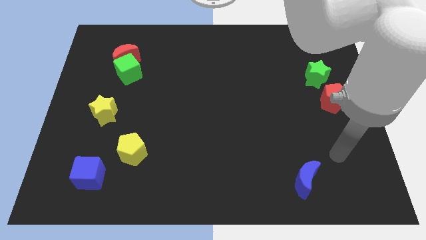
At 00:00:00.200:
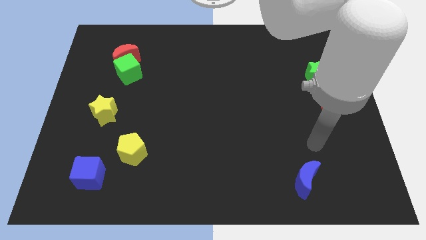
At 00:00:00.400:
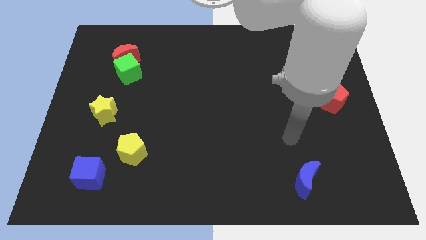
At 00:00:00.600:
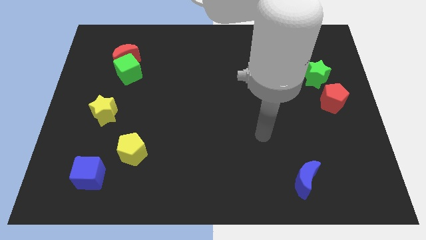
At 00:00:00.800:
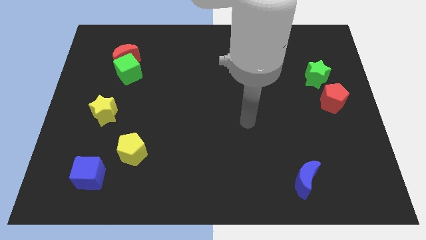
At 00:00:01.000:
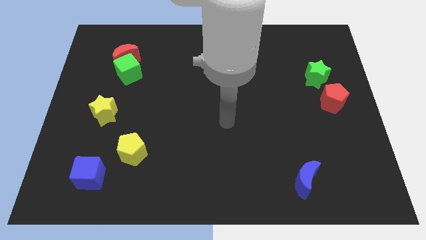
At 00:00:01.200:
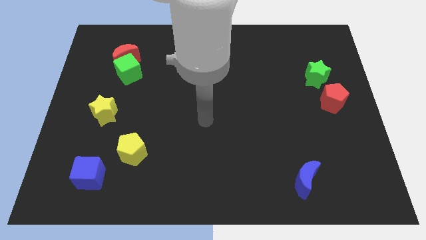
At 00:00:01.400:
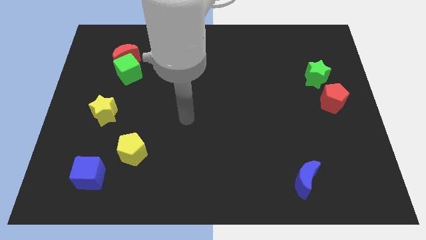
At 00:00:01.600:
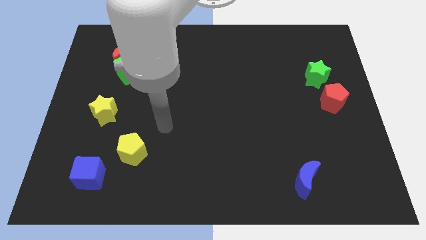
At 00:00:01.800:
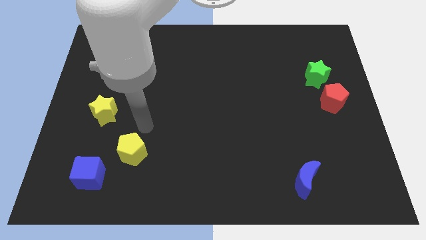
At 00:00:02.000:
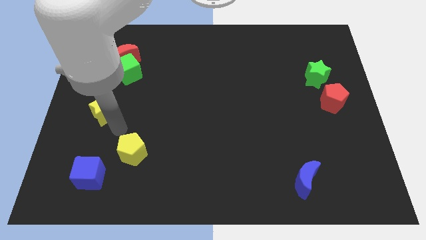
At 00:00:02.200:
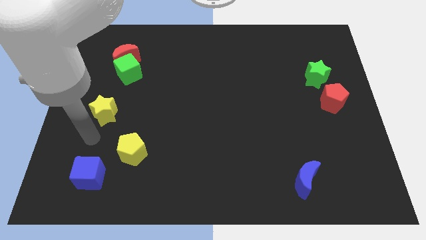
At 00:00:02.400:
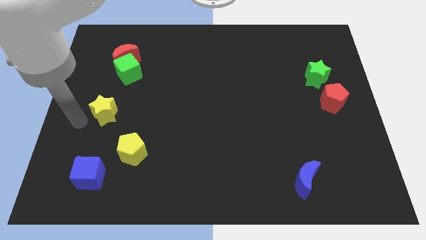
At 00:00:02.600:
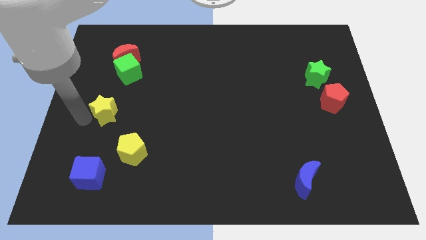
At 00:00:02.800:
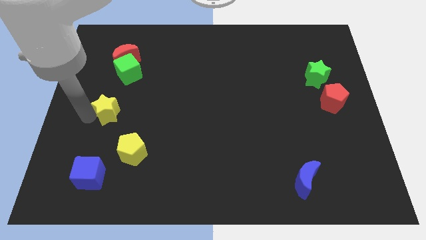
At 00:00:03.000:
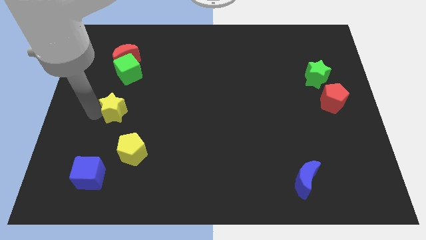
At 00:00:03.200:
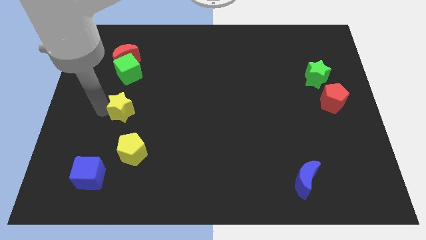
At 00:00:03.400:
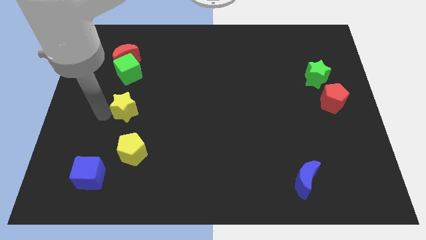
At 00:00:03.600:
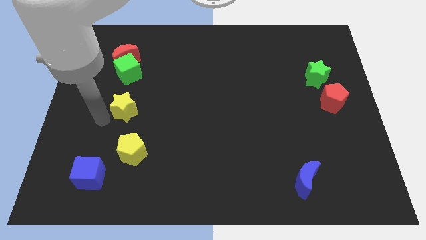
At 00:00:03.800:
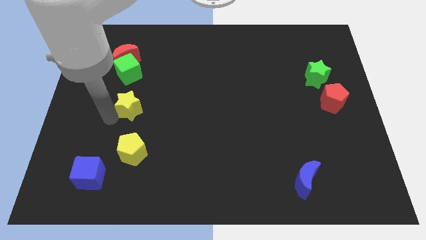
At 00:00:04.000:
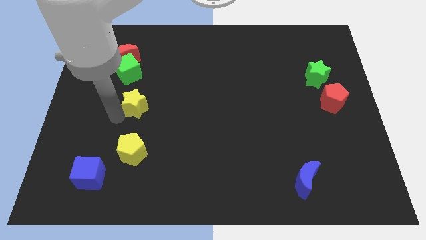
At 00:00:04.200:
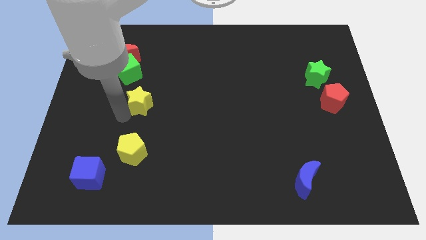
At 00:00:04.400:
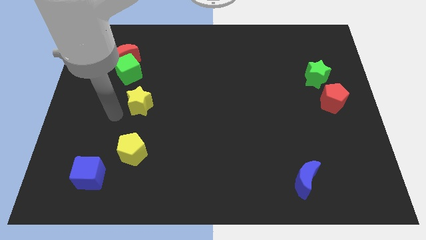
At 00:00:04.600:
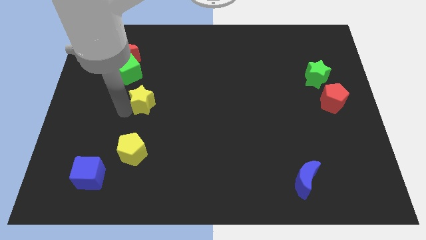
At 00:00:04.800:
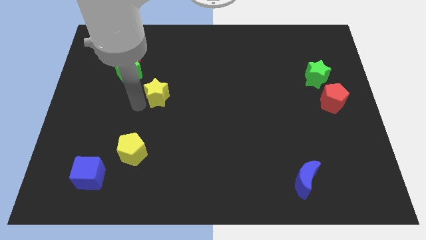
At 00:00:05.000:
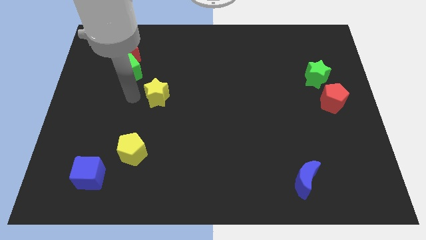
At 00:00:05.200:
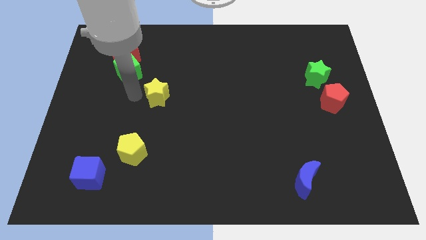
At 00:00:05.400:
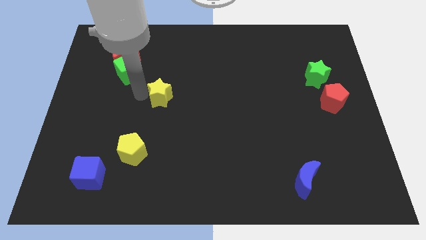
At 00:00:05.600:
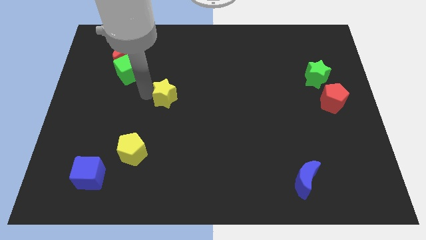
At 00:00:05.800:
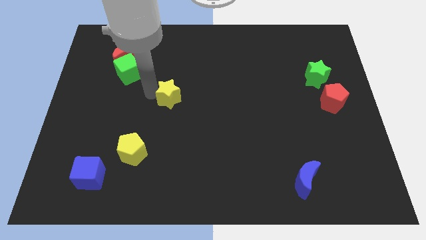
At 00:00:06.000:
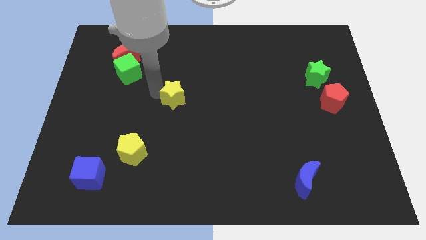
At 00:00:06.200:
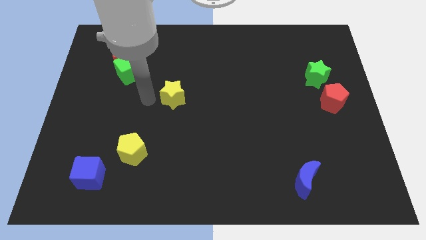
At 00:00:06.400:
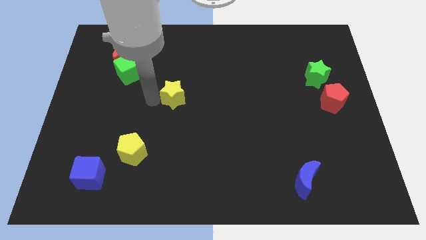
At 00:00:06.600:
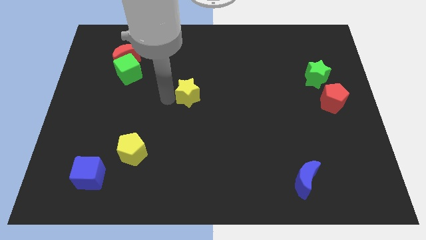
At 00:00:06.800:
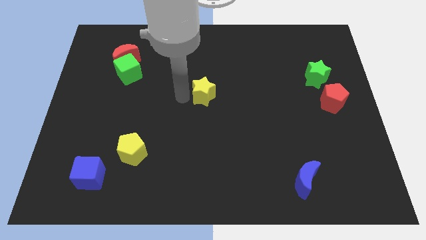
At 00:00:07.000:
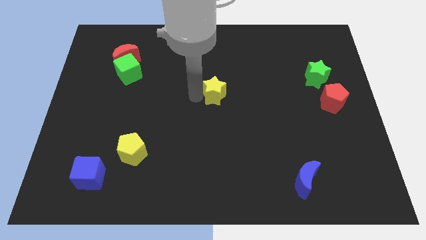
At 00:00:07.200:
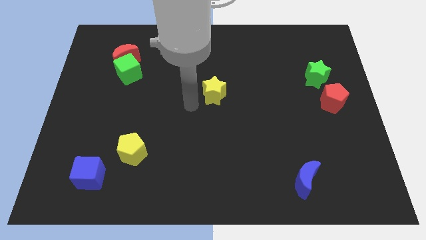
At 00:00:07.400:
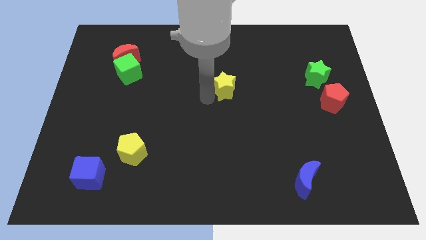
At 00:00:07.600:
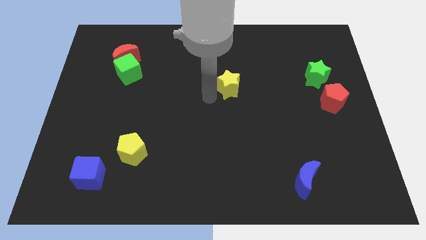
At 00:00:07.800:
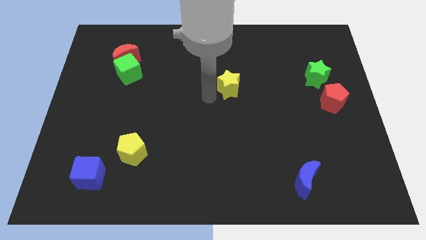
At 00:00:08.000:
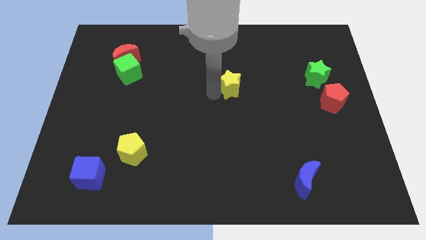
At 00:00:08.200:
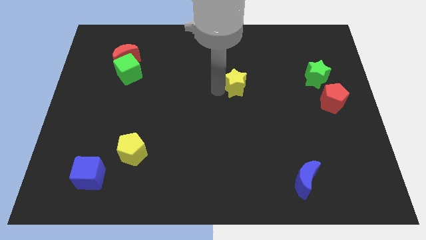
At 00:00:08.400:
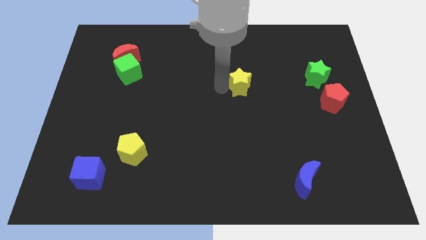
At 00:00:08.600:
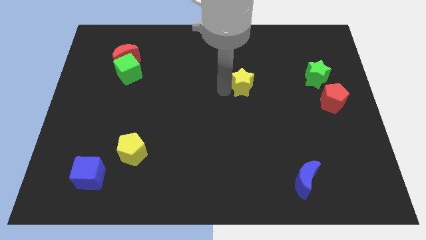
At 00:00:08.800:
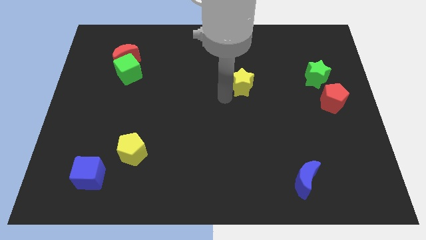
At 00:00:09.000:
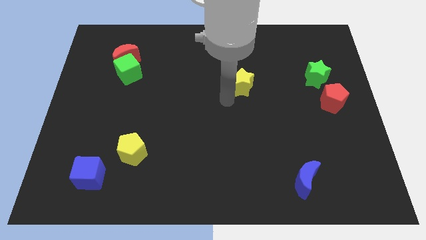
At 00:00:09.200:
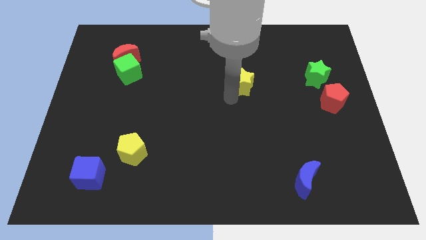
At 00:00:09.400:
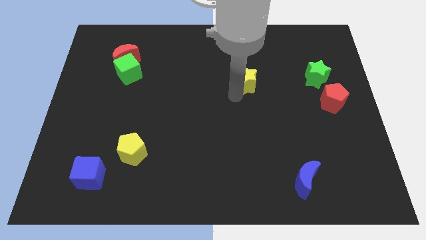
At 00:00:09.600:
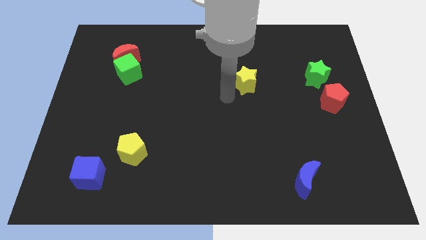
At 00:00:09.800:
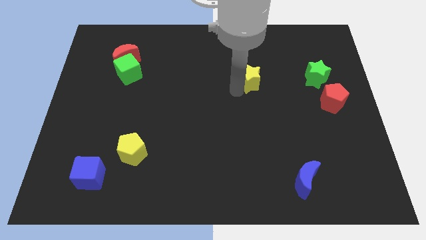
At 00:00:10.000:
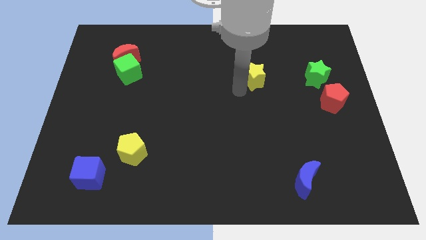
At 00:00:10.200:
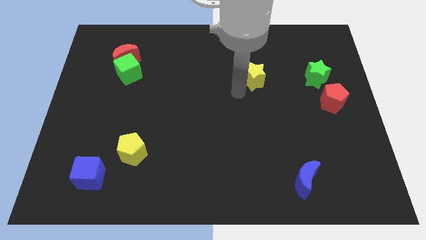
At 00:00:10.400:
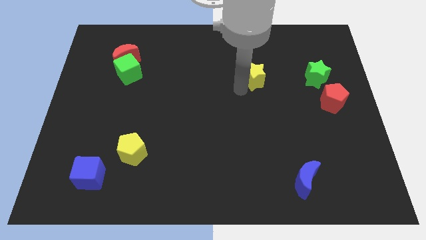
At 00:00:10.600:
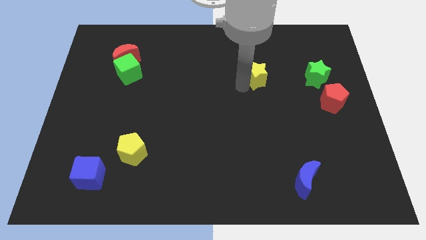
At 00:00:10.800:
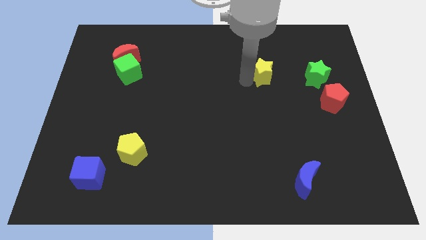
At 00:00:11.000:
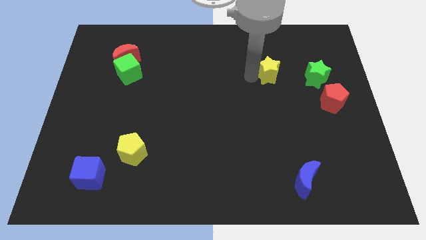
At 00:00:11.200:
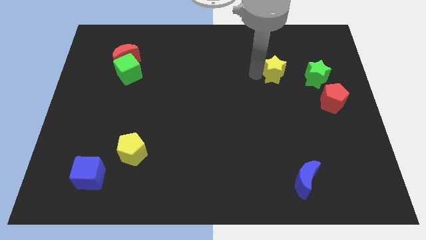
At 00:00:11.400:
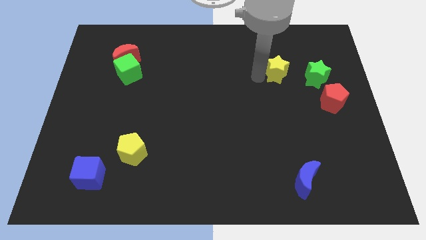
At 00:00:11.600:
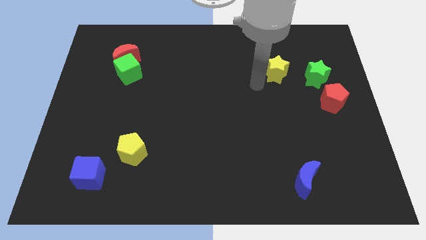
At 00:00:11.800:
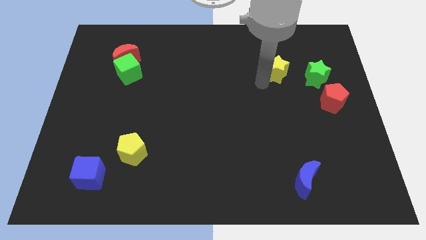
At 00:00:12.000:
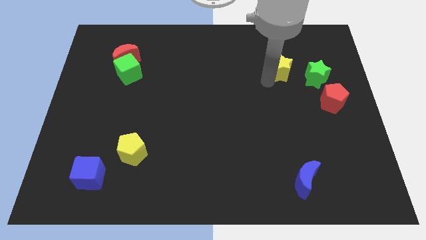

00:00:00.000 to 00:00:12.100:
push the yellow star to the top left of the green star
